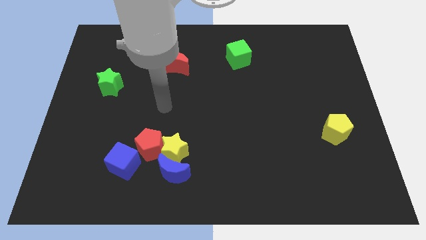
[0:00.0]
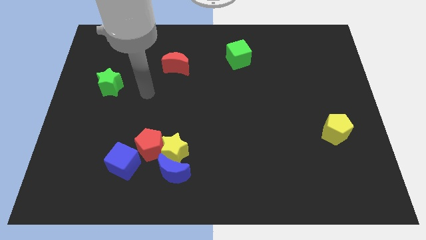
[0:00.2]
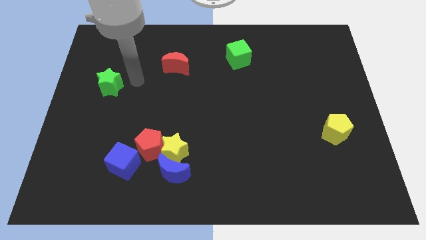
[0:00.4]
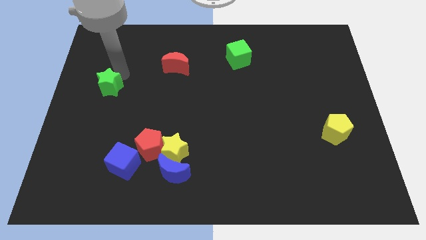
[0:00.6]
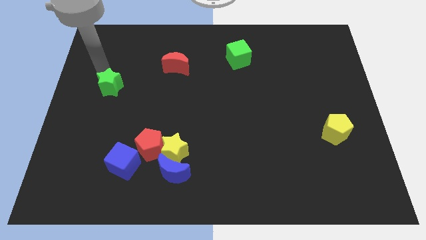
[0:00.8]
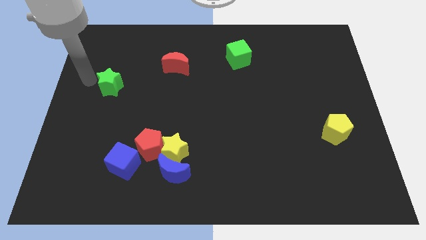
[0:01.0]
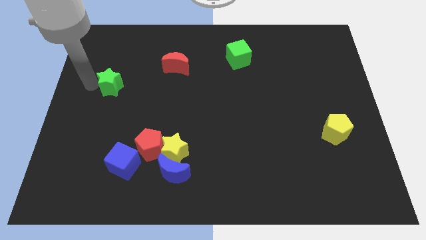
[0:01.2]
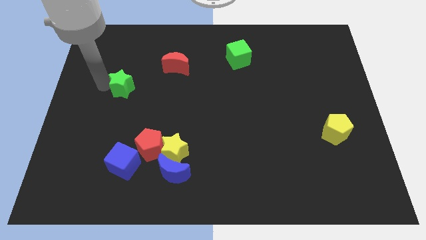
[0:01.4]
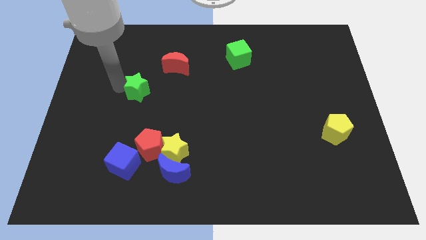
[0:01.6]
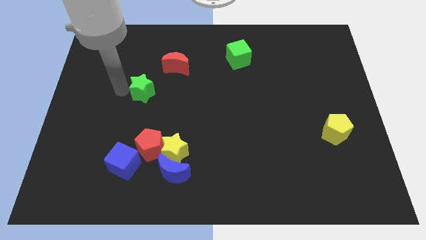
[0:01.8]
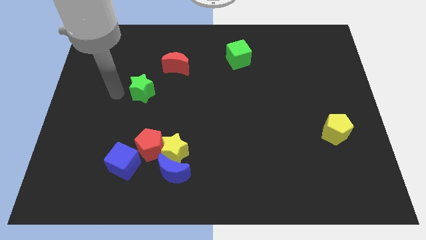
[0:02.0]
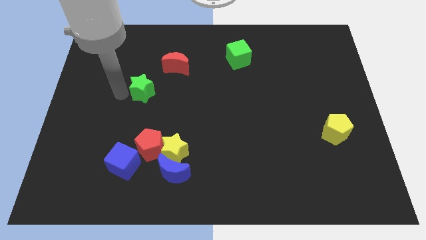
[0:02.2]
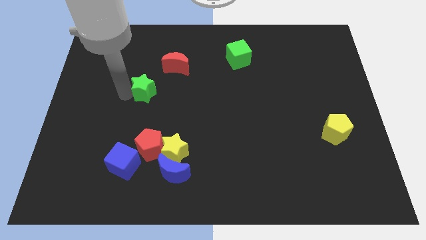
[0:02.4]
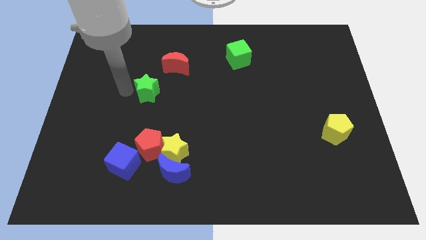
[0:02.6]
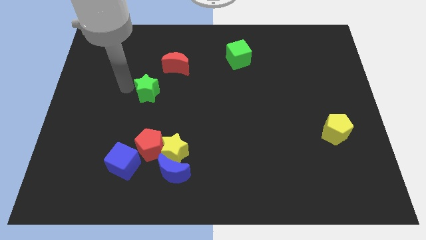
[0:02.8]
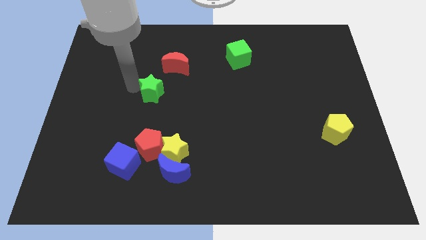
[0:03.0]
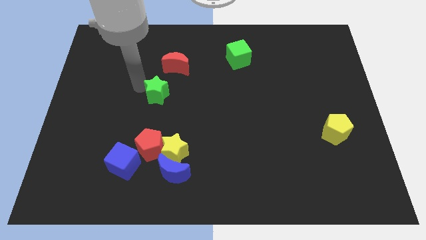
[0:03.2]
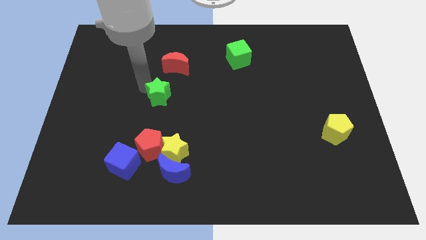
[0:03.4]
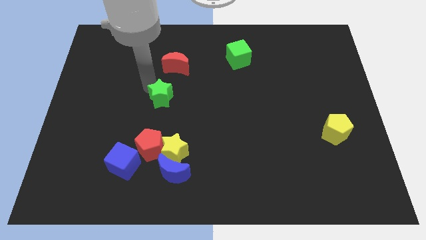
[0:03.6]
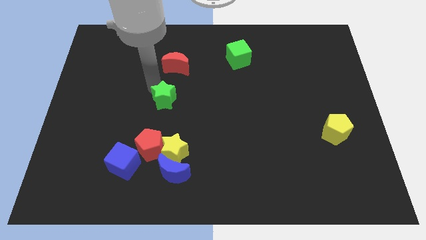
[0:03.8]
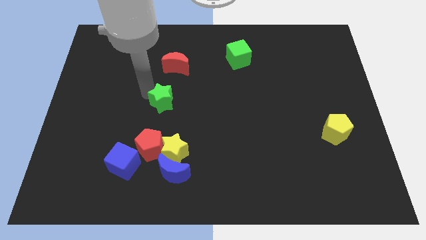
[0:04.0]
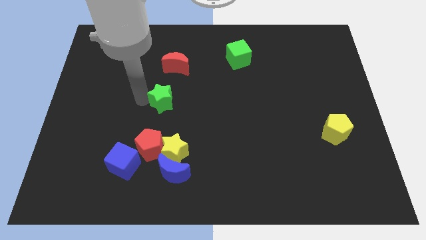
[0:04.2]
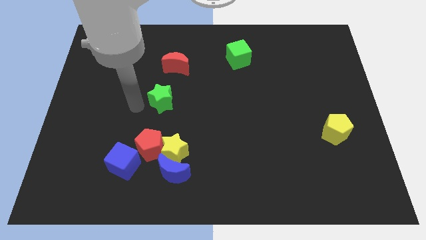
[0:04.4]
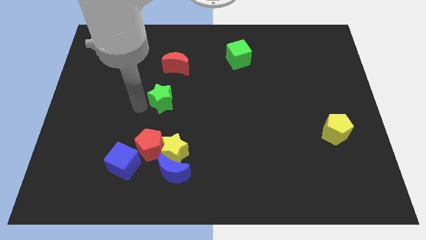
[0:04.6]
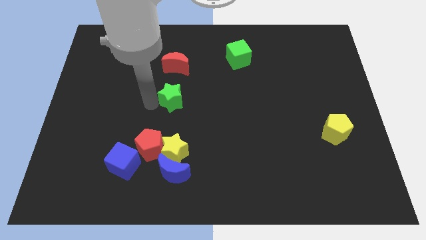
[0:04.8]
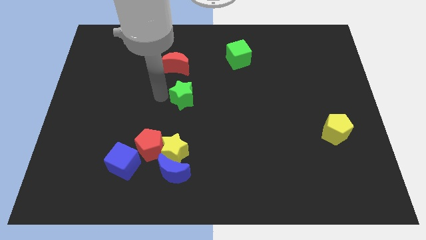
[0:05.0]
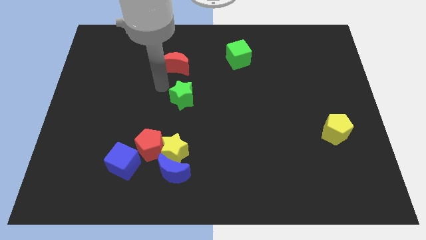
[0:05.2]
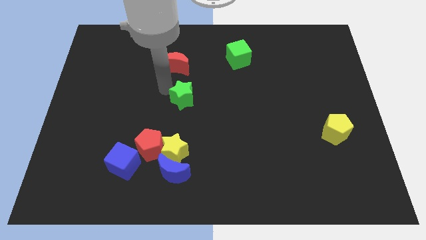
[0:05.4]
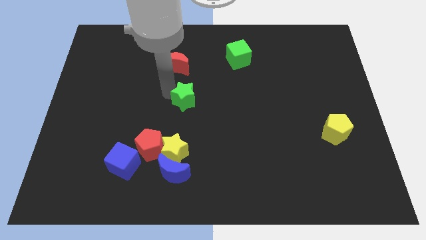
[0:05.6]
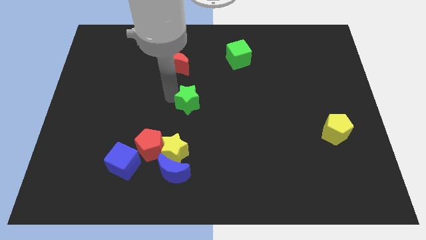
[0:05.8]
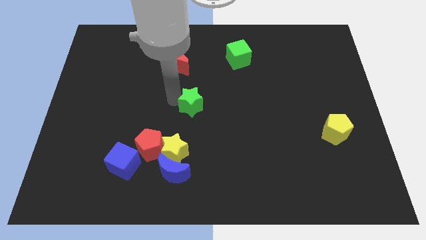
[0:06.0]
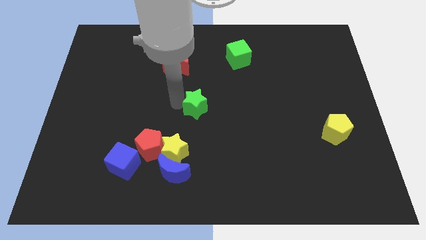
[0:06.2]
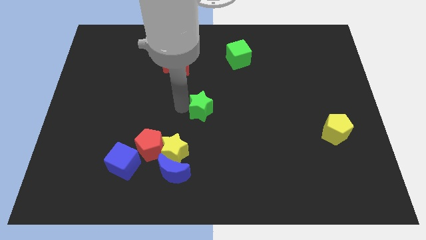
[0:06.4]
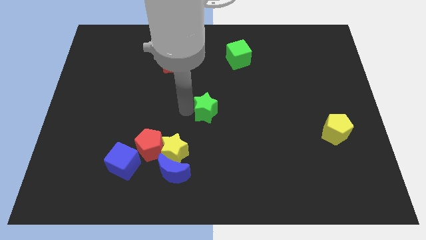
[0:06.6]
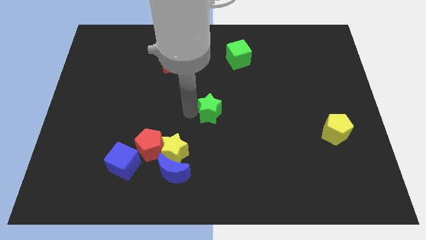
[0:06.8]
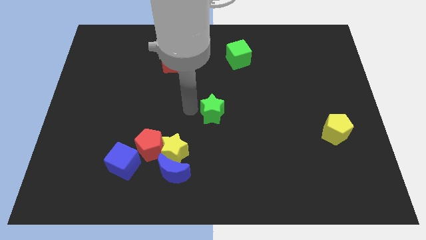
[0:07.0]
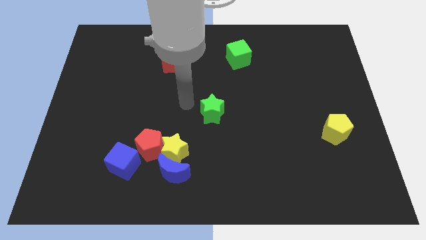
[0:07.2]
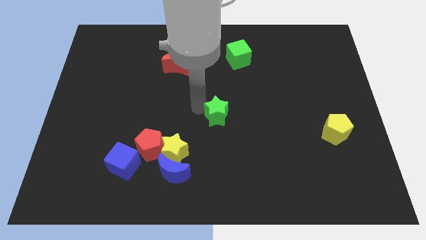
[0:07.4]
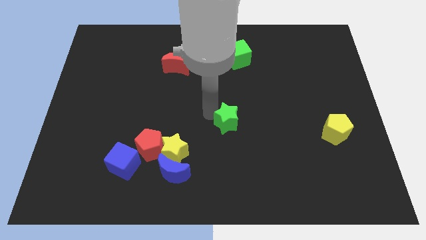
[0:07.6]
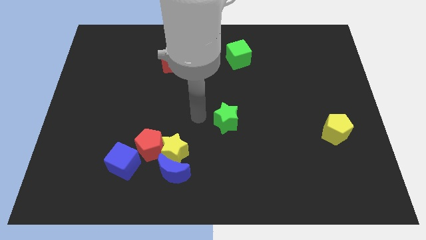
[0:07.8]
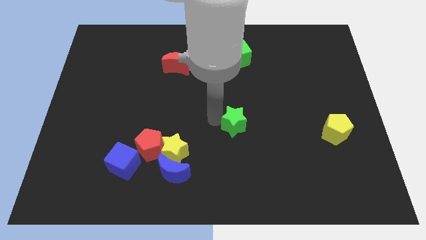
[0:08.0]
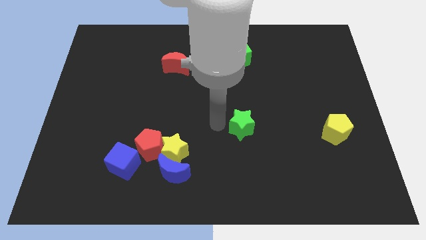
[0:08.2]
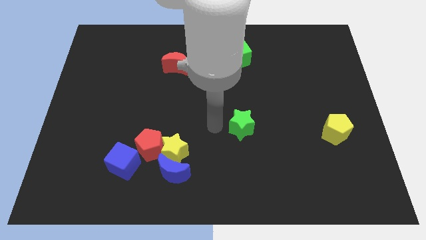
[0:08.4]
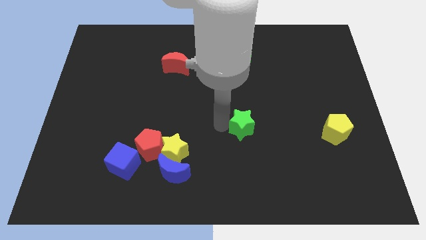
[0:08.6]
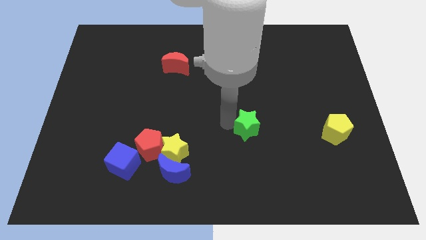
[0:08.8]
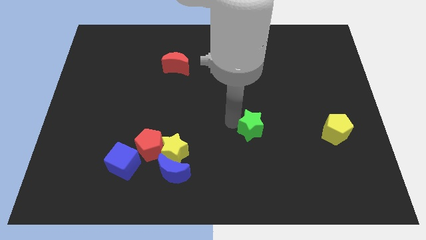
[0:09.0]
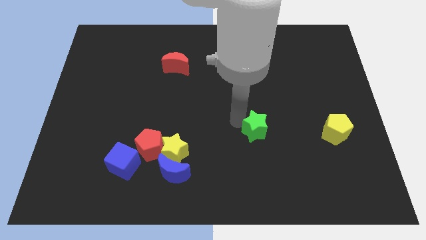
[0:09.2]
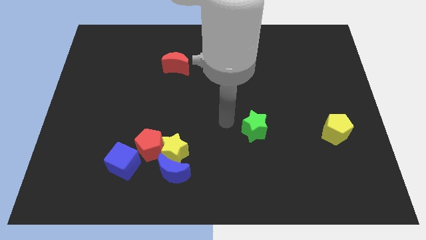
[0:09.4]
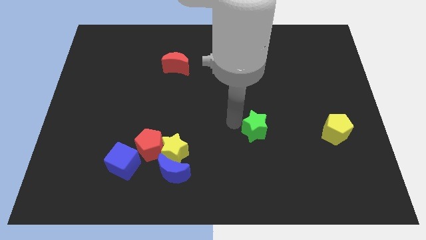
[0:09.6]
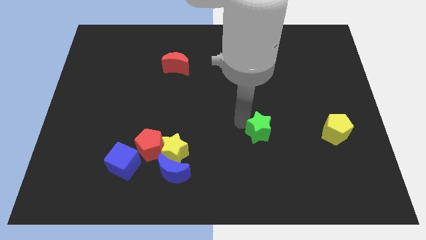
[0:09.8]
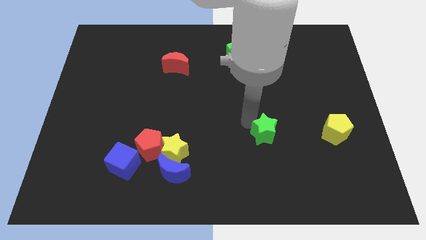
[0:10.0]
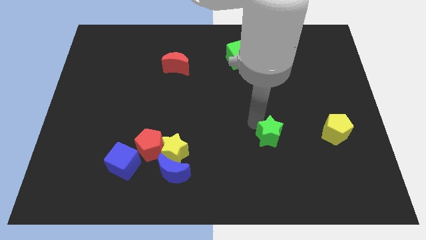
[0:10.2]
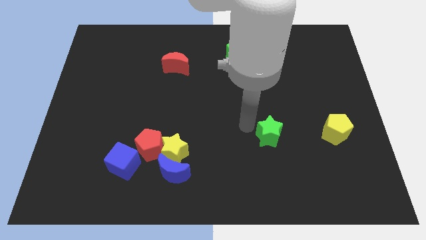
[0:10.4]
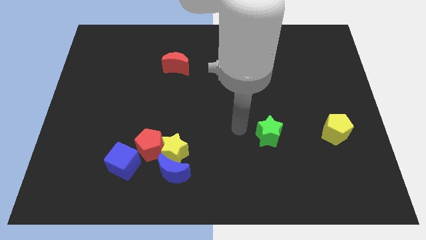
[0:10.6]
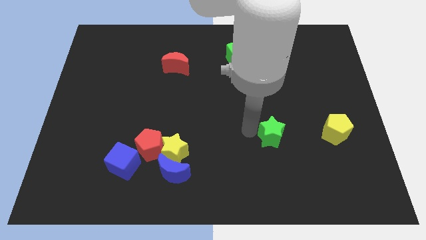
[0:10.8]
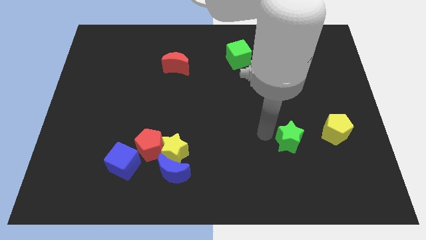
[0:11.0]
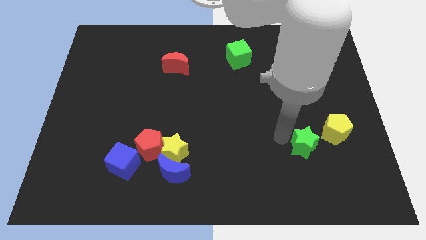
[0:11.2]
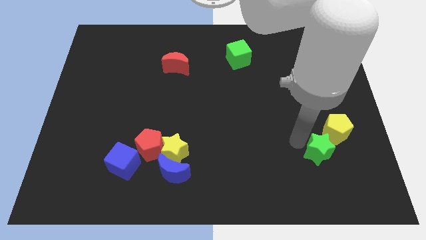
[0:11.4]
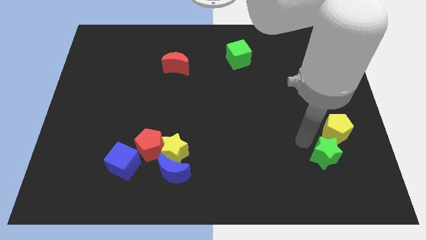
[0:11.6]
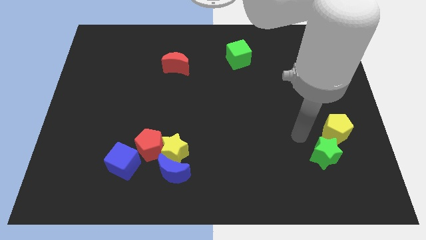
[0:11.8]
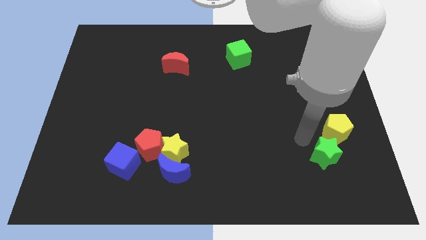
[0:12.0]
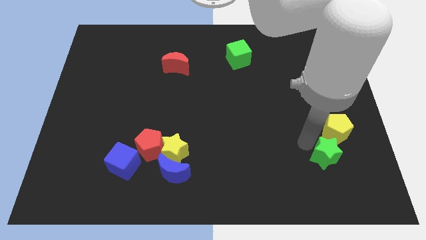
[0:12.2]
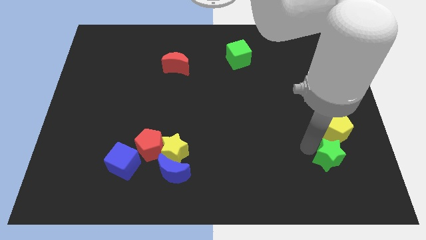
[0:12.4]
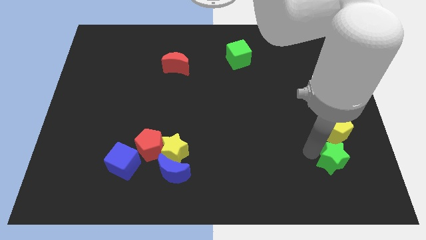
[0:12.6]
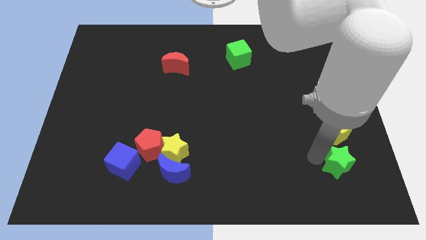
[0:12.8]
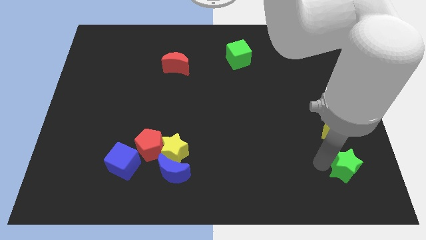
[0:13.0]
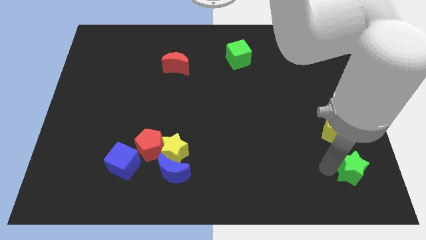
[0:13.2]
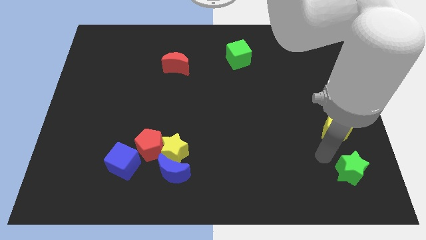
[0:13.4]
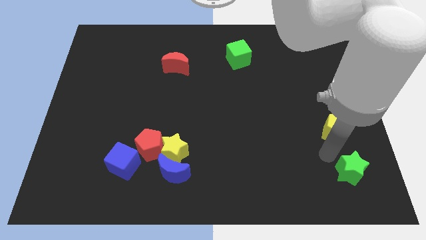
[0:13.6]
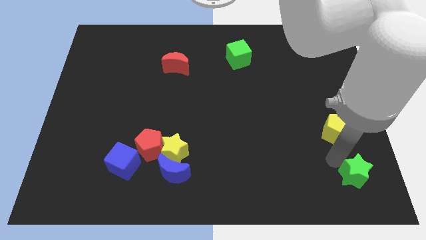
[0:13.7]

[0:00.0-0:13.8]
push the green star to the bottom right corner

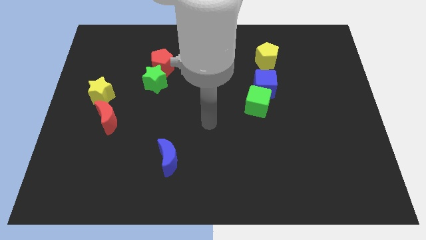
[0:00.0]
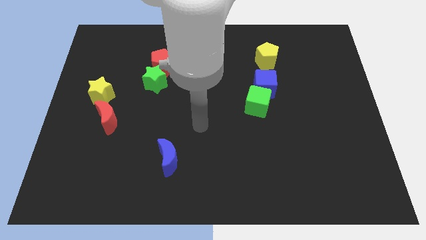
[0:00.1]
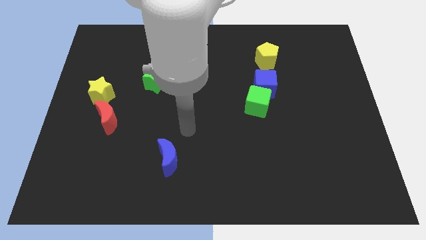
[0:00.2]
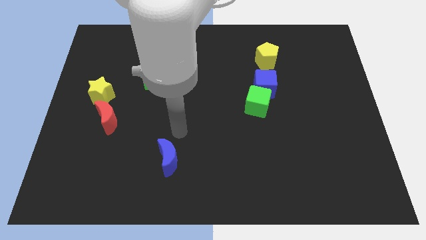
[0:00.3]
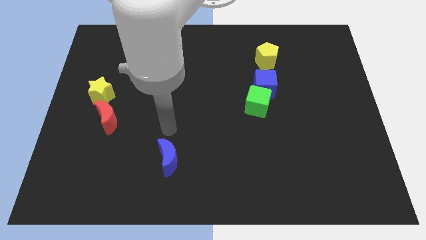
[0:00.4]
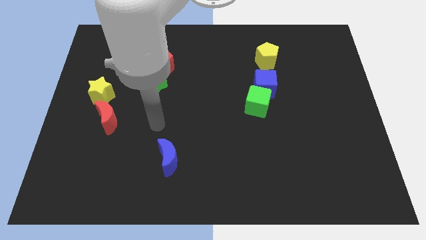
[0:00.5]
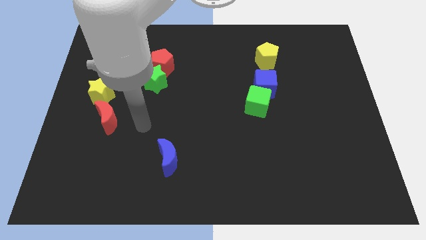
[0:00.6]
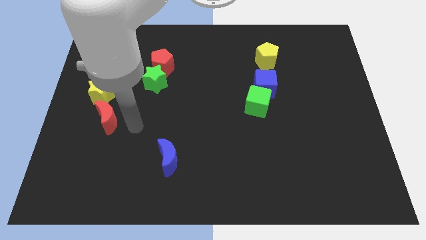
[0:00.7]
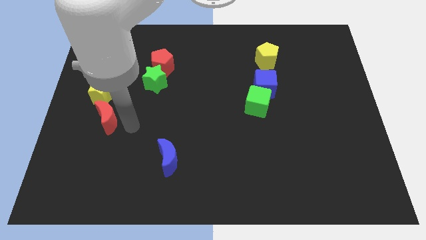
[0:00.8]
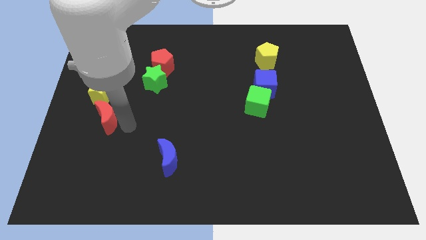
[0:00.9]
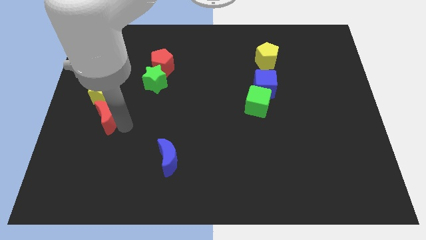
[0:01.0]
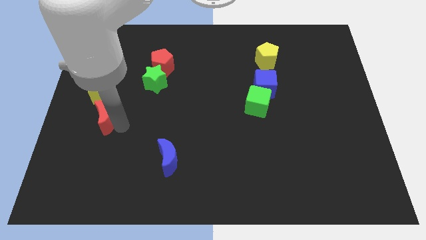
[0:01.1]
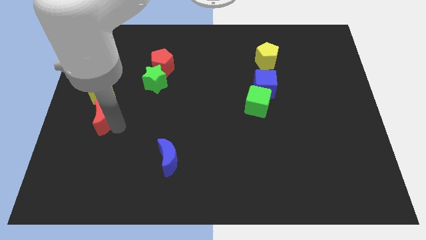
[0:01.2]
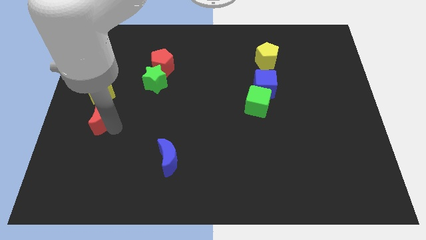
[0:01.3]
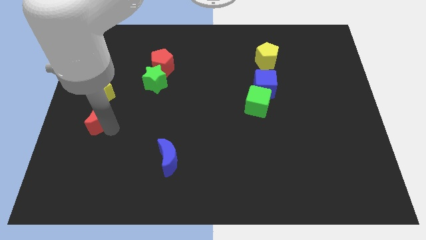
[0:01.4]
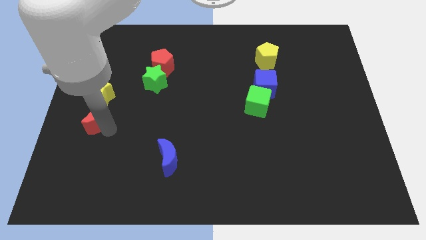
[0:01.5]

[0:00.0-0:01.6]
push the red moon to the left side of the board
